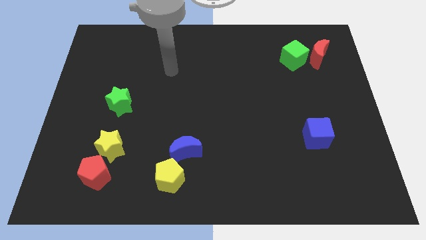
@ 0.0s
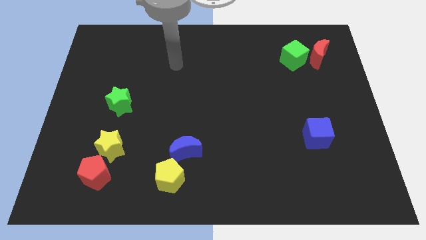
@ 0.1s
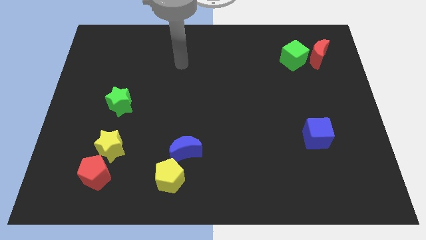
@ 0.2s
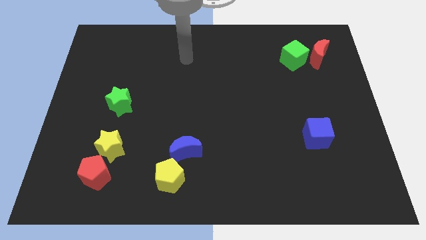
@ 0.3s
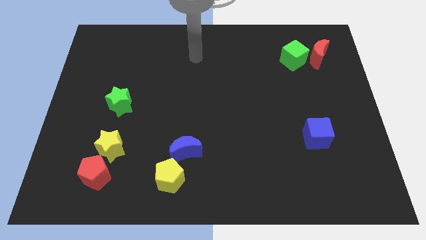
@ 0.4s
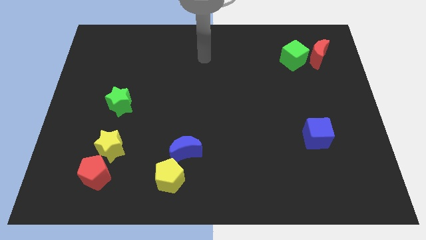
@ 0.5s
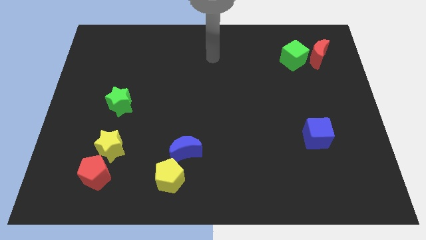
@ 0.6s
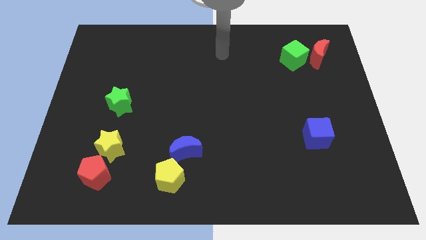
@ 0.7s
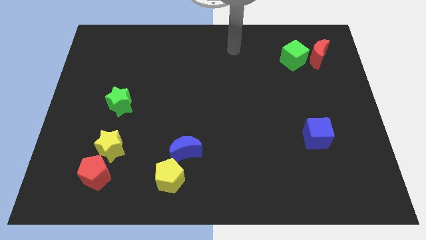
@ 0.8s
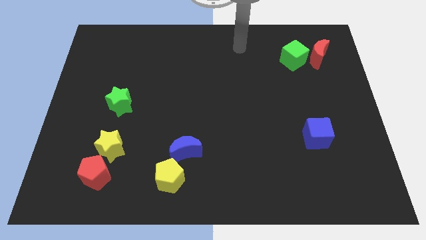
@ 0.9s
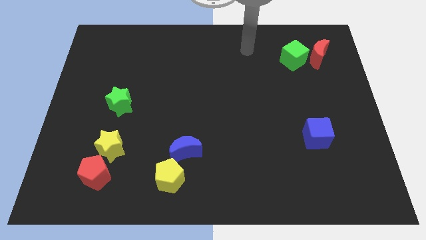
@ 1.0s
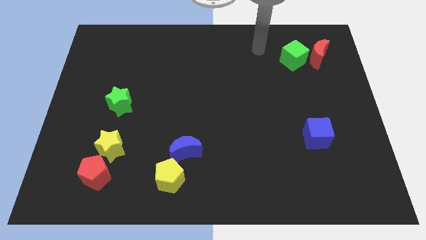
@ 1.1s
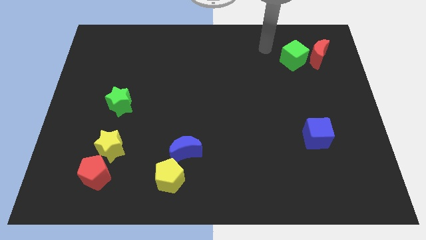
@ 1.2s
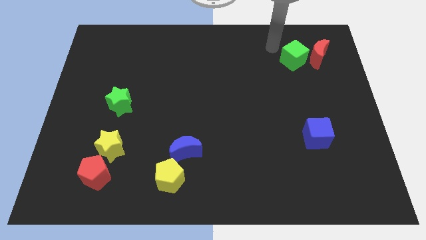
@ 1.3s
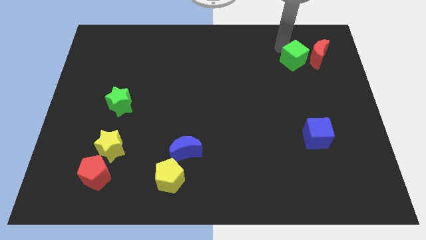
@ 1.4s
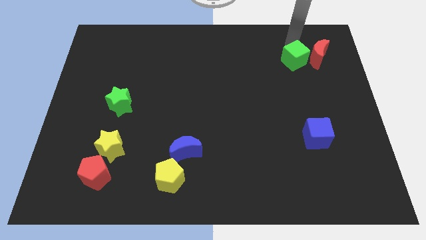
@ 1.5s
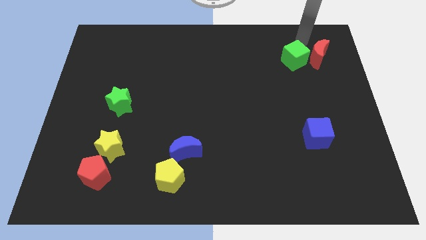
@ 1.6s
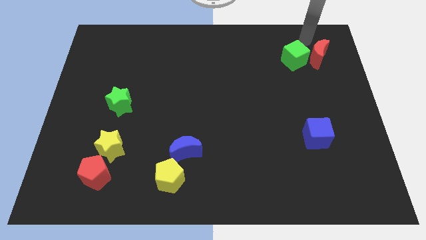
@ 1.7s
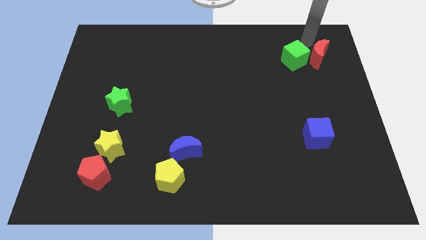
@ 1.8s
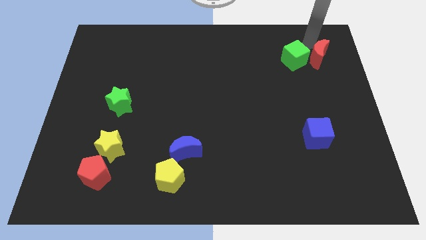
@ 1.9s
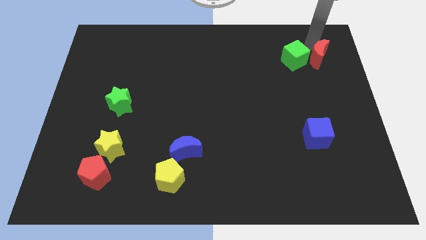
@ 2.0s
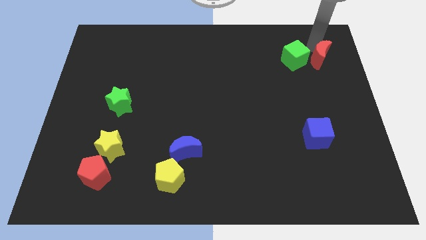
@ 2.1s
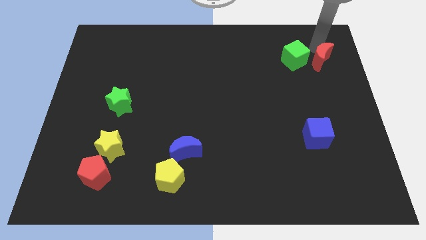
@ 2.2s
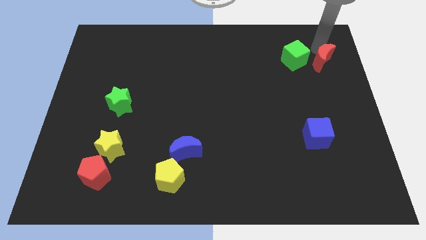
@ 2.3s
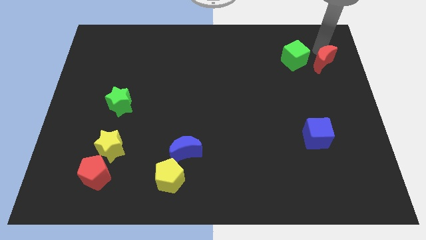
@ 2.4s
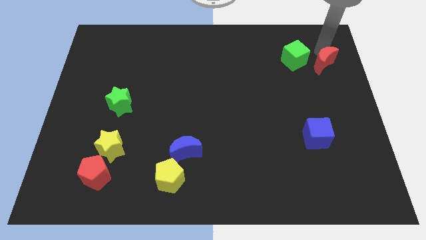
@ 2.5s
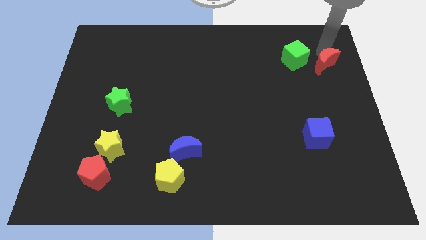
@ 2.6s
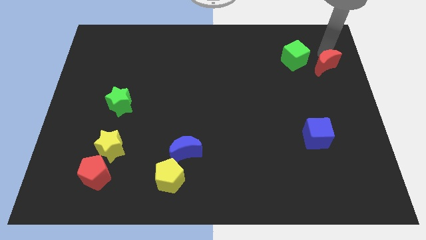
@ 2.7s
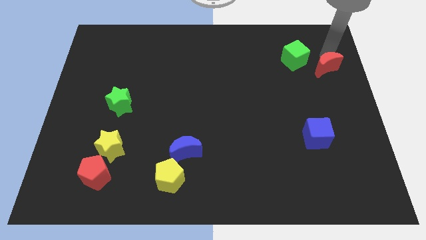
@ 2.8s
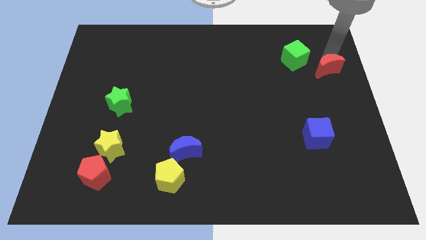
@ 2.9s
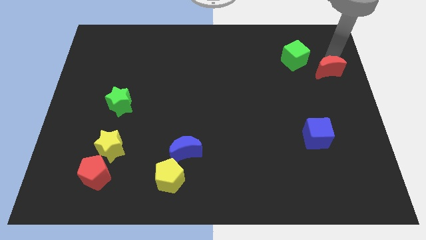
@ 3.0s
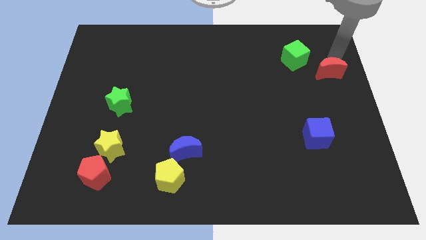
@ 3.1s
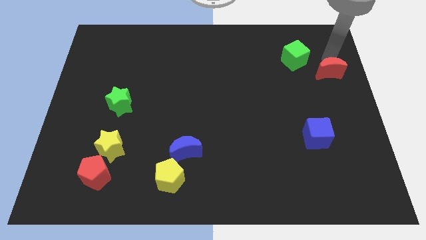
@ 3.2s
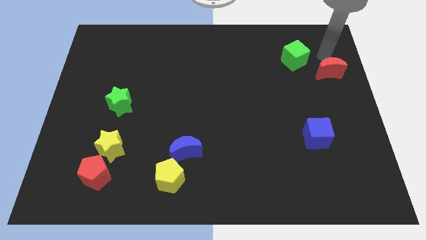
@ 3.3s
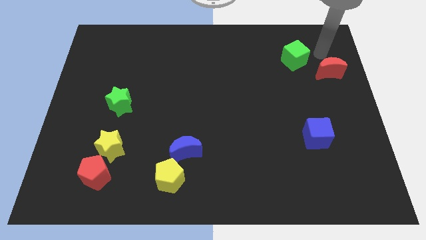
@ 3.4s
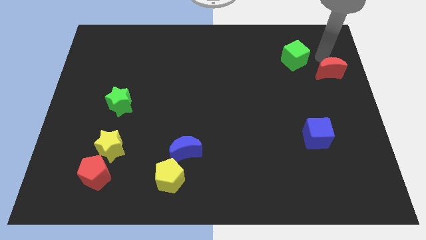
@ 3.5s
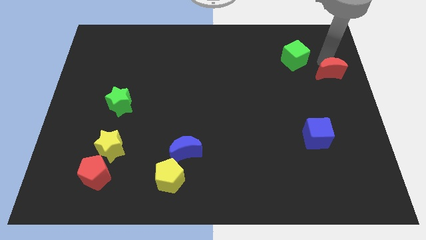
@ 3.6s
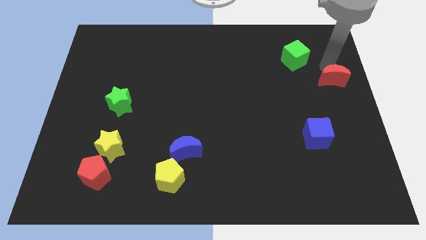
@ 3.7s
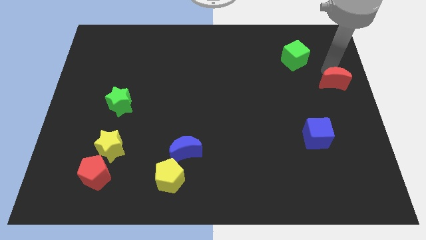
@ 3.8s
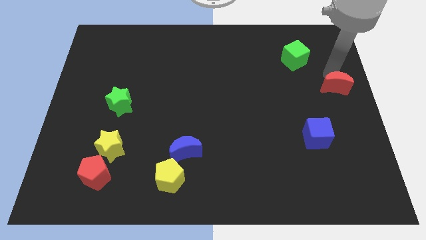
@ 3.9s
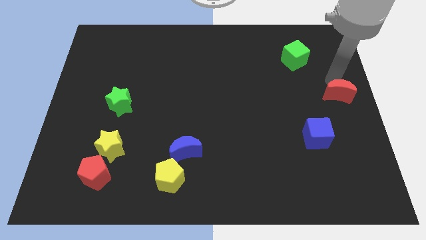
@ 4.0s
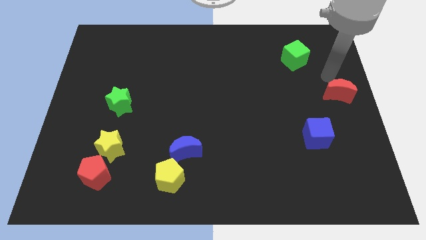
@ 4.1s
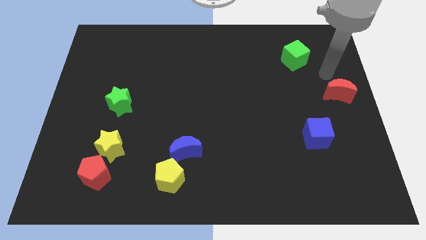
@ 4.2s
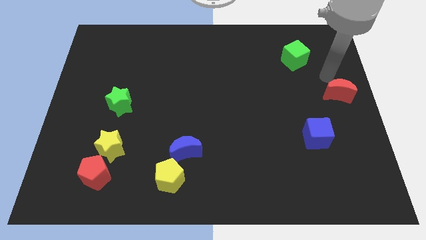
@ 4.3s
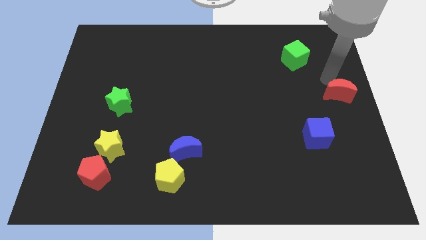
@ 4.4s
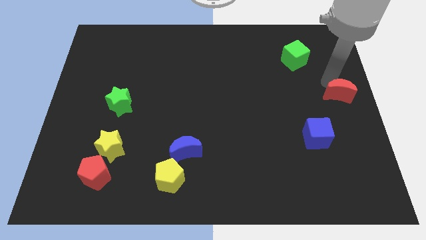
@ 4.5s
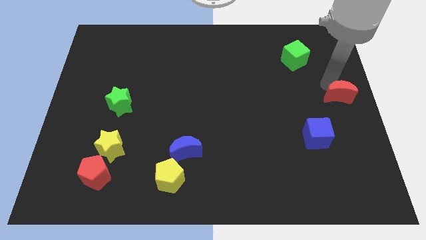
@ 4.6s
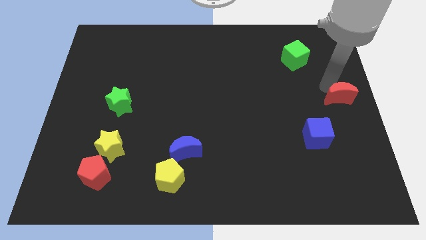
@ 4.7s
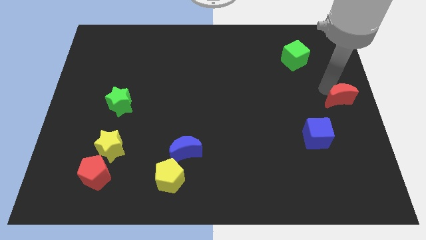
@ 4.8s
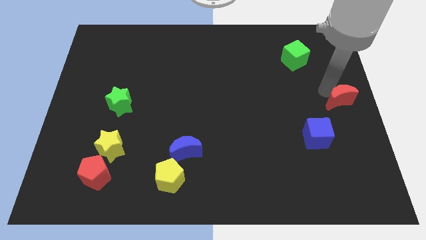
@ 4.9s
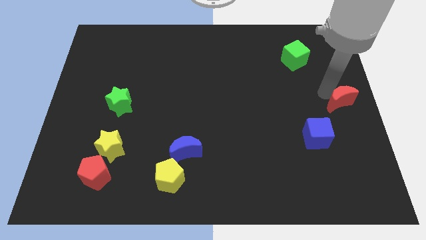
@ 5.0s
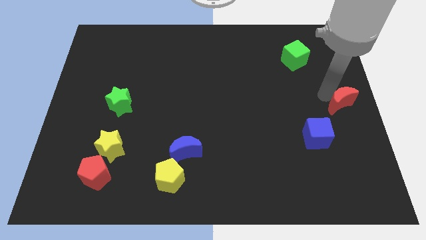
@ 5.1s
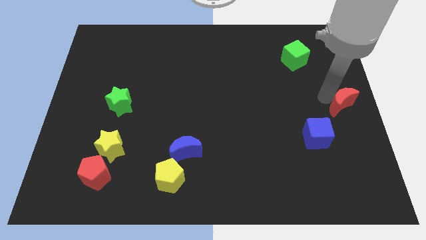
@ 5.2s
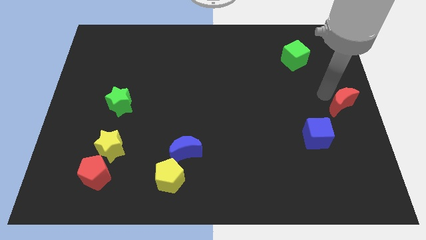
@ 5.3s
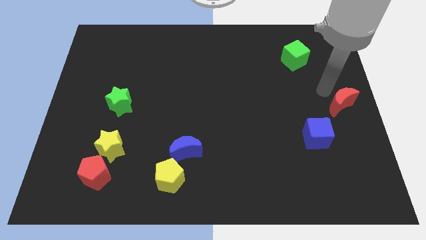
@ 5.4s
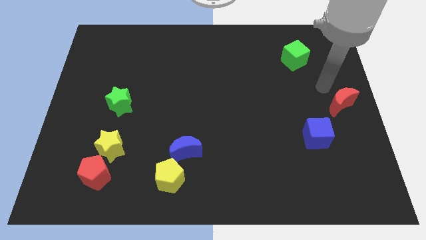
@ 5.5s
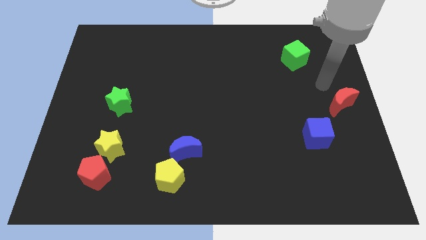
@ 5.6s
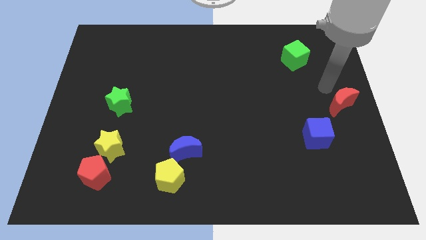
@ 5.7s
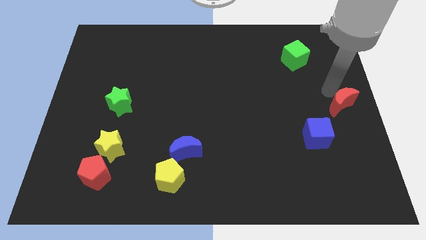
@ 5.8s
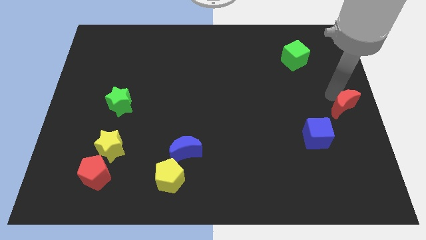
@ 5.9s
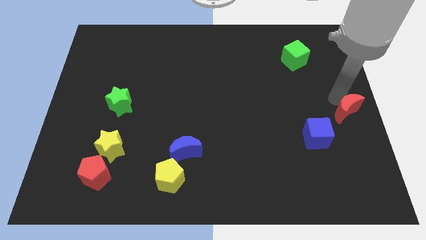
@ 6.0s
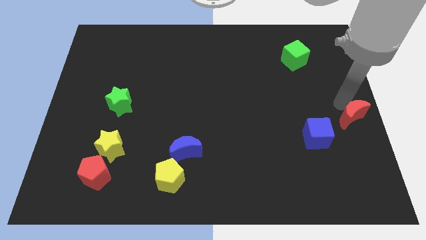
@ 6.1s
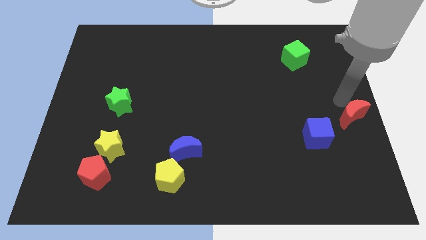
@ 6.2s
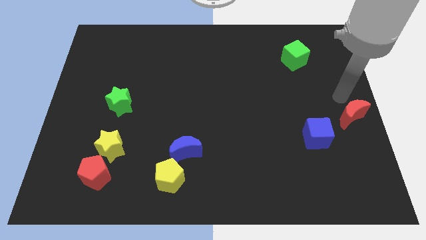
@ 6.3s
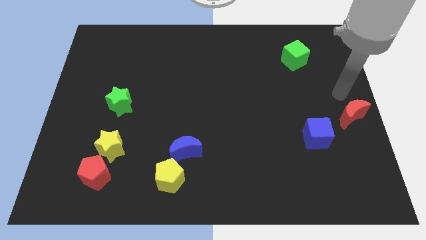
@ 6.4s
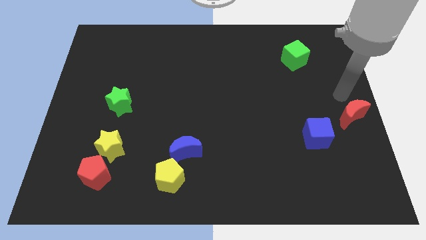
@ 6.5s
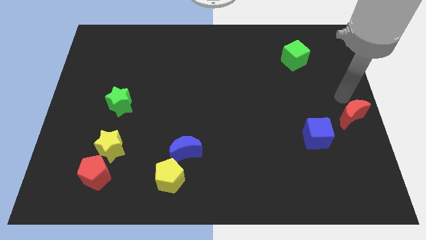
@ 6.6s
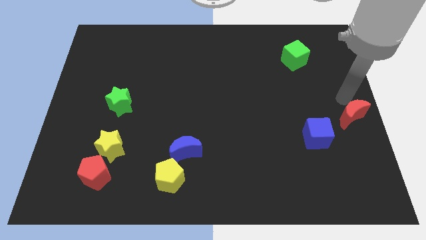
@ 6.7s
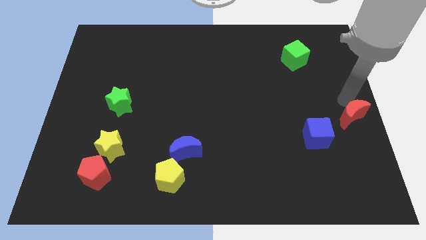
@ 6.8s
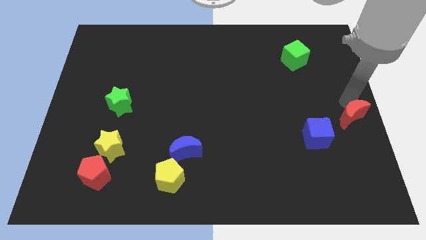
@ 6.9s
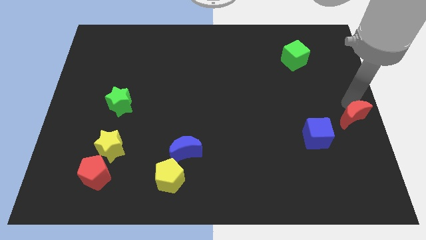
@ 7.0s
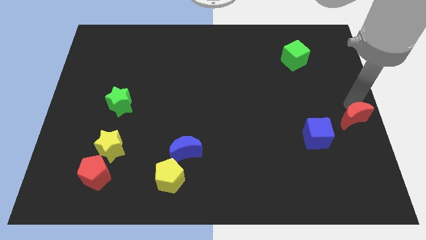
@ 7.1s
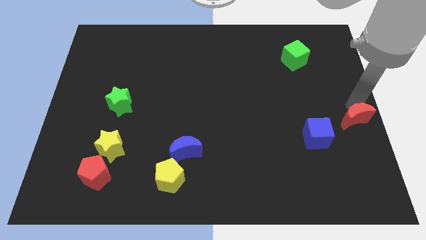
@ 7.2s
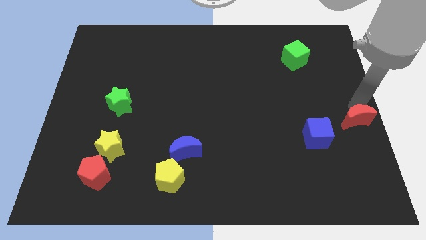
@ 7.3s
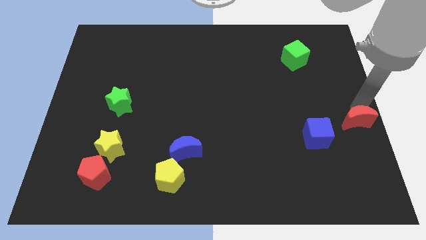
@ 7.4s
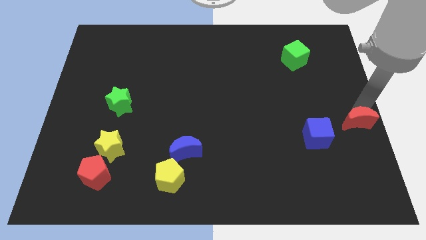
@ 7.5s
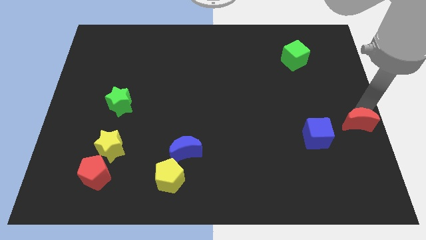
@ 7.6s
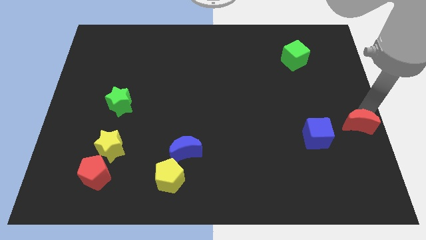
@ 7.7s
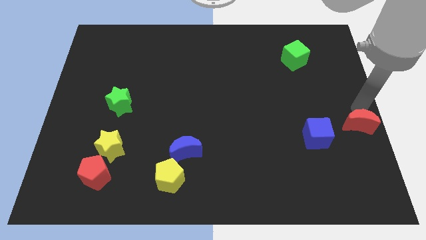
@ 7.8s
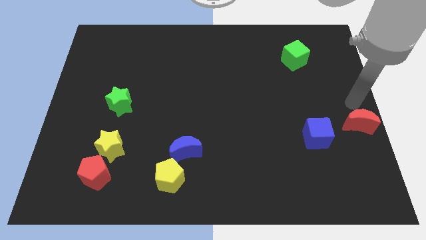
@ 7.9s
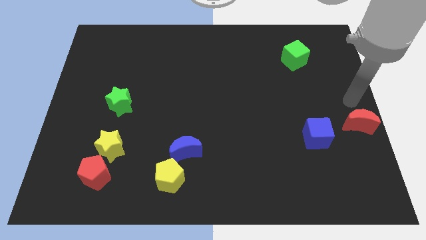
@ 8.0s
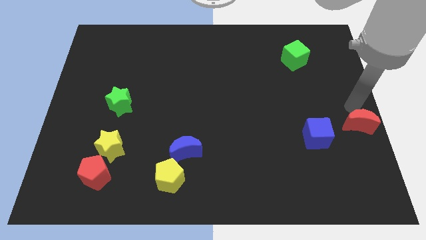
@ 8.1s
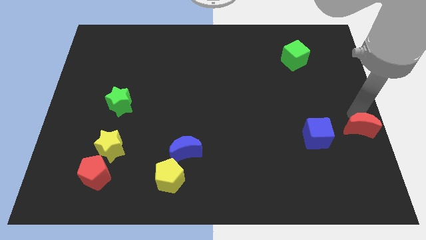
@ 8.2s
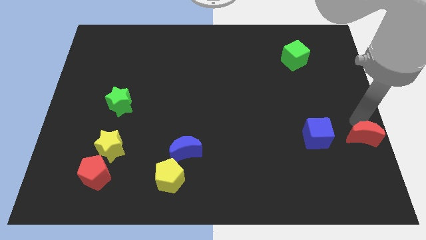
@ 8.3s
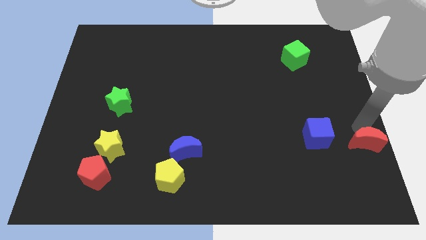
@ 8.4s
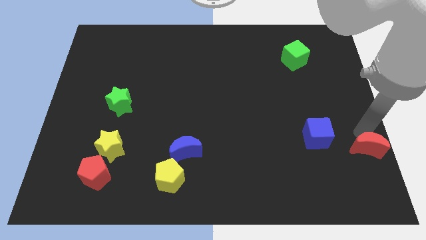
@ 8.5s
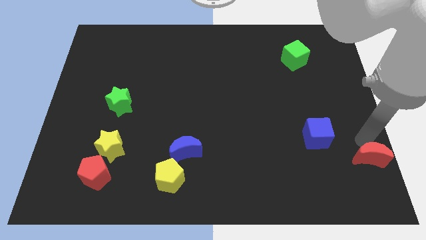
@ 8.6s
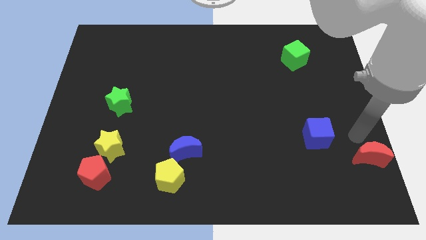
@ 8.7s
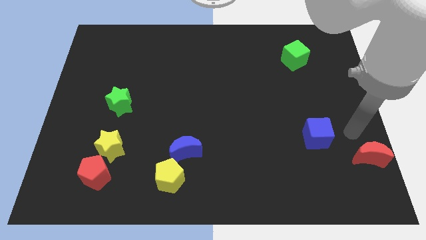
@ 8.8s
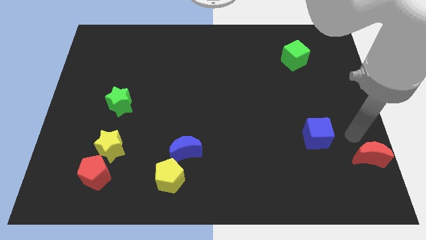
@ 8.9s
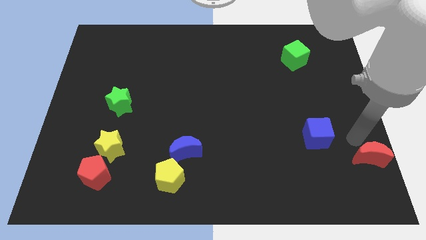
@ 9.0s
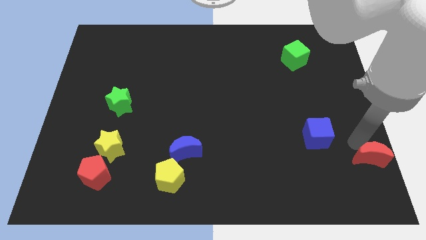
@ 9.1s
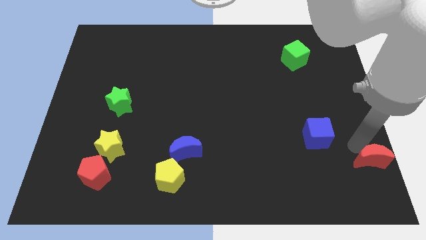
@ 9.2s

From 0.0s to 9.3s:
slide the red moon to the bottom right of the board
